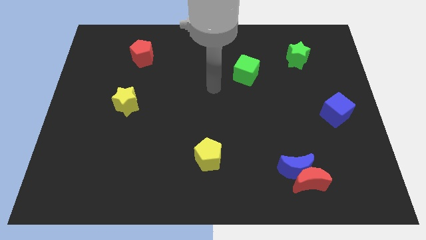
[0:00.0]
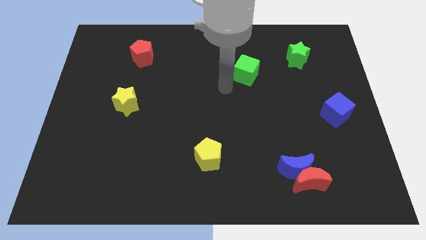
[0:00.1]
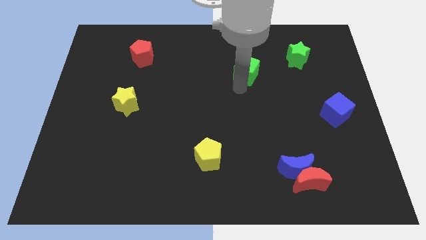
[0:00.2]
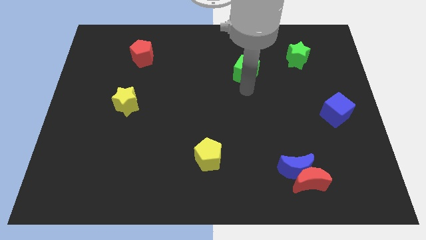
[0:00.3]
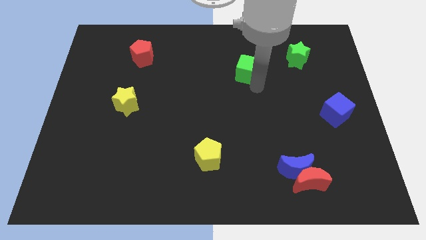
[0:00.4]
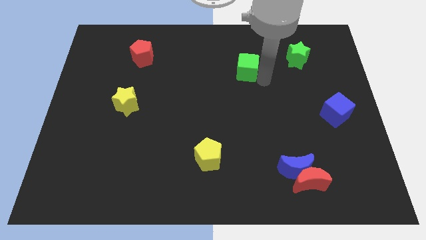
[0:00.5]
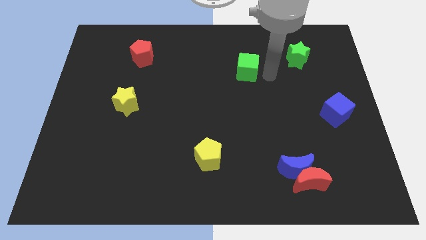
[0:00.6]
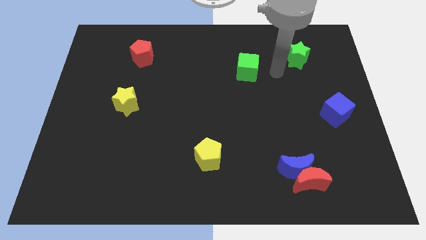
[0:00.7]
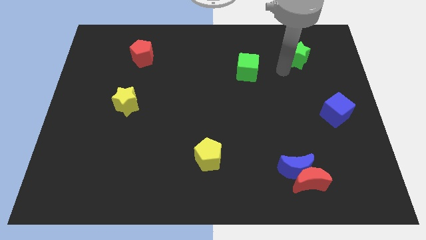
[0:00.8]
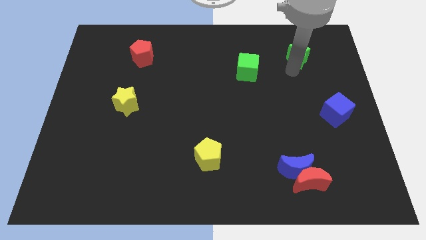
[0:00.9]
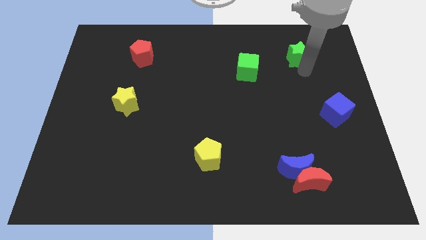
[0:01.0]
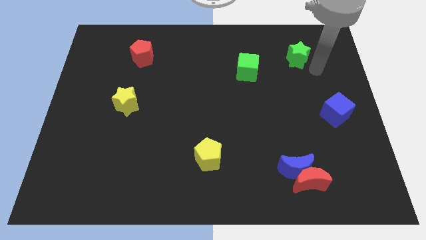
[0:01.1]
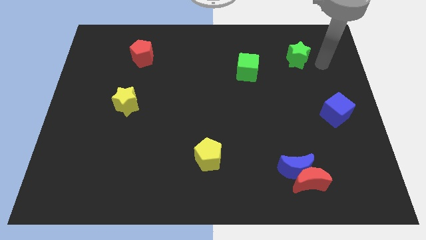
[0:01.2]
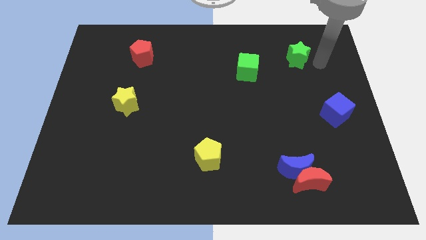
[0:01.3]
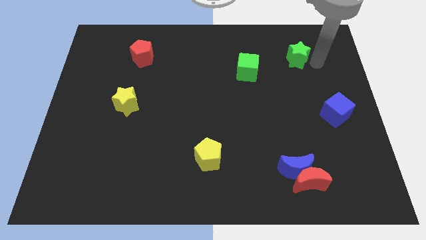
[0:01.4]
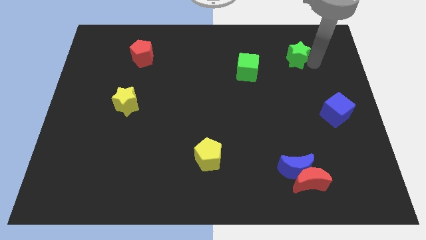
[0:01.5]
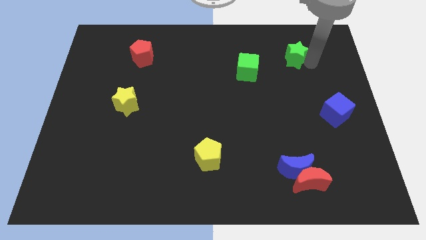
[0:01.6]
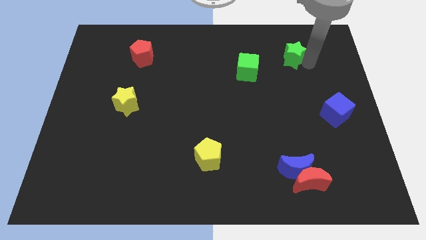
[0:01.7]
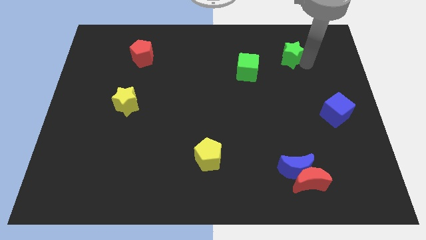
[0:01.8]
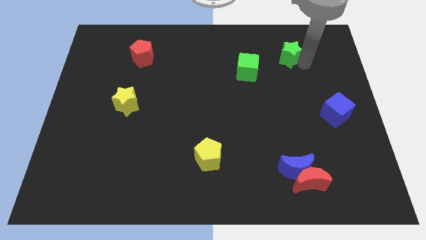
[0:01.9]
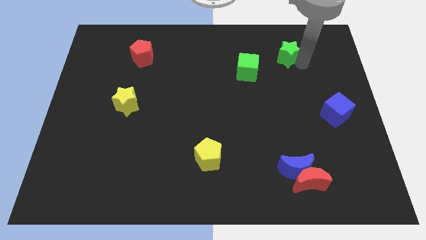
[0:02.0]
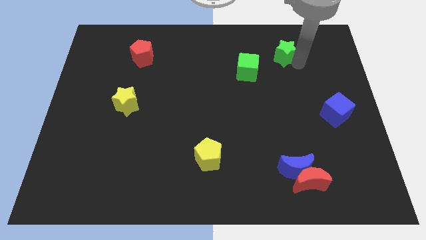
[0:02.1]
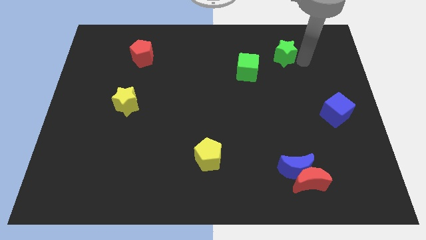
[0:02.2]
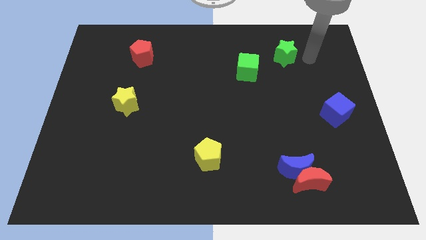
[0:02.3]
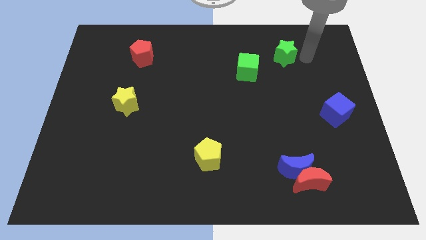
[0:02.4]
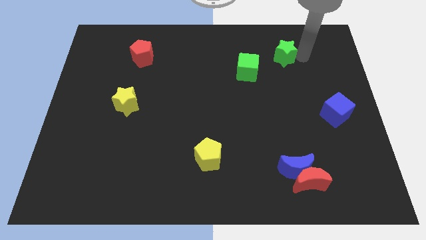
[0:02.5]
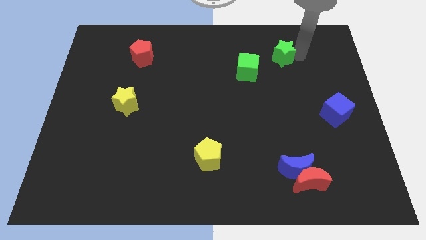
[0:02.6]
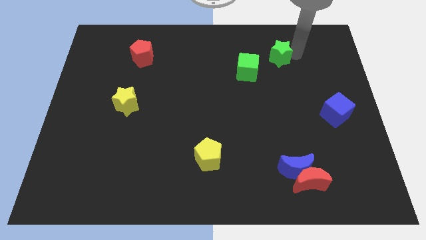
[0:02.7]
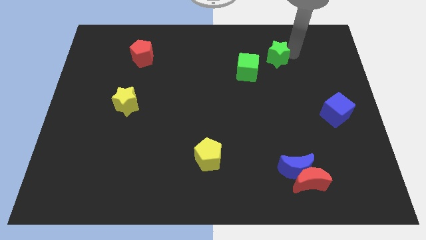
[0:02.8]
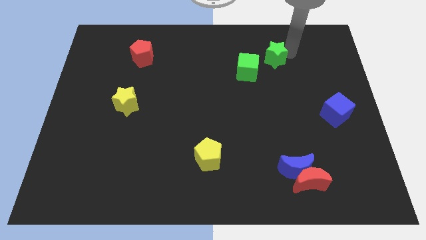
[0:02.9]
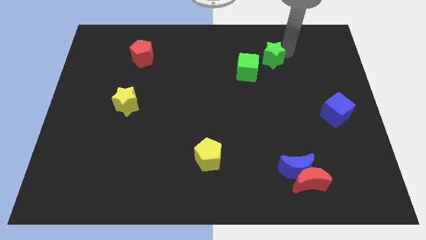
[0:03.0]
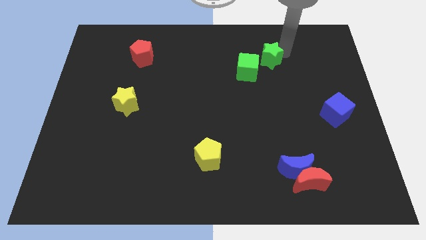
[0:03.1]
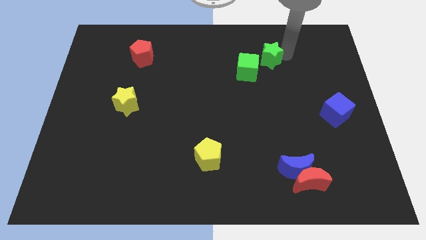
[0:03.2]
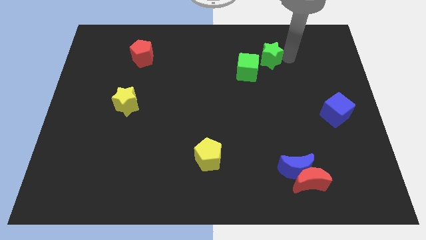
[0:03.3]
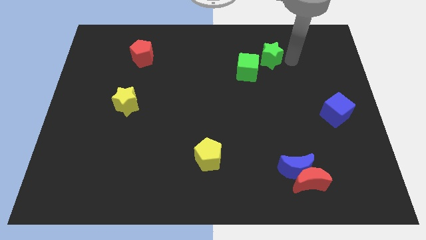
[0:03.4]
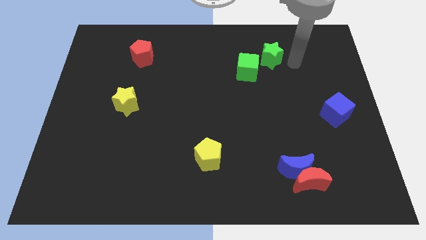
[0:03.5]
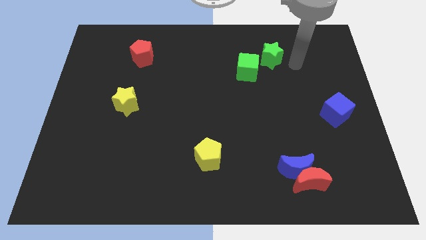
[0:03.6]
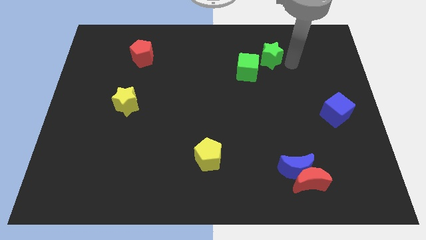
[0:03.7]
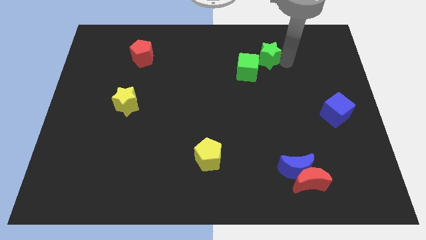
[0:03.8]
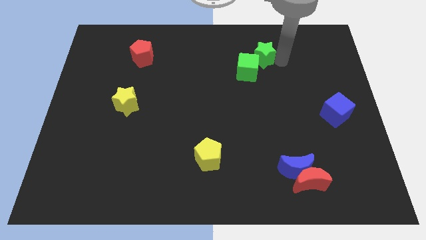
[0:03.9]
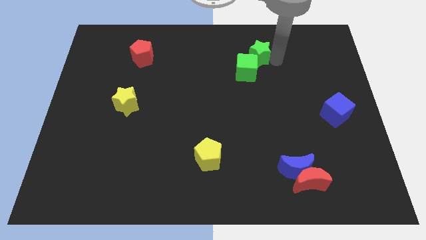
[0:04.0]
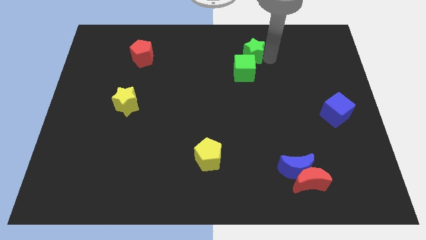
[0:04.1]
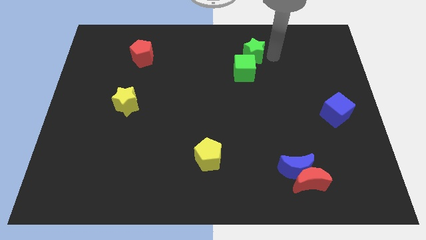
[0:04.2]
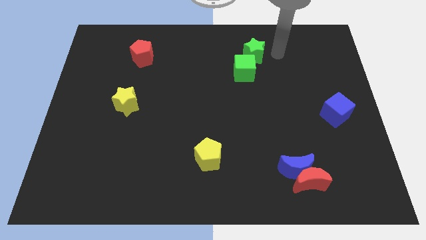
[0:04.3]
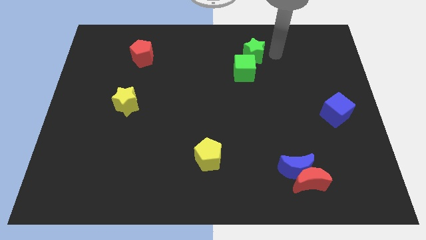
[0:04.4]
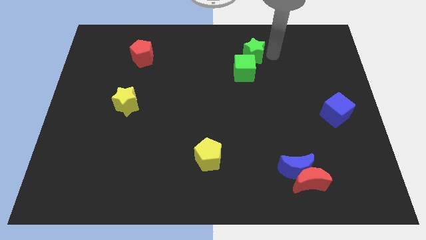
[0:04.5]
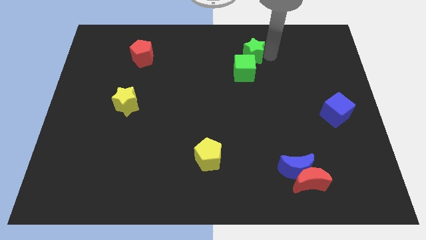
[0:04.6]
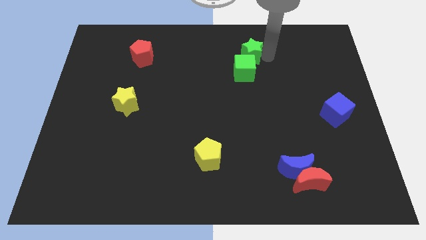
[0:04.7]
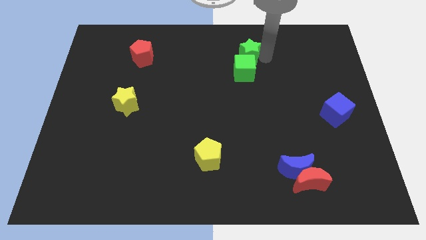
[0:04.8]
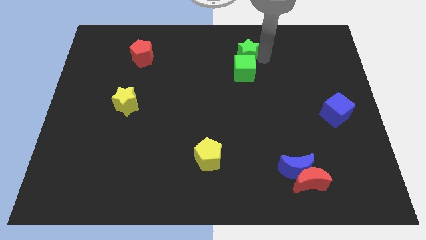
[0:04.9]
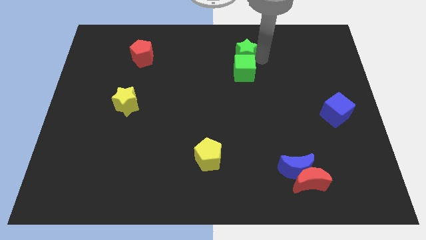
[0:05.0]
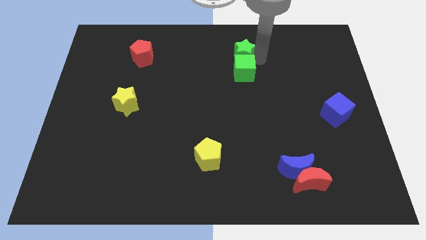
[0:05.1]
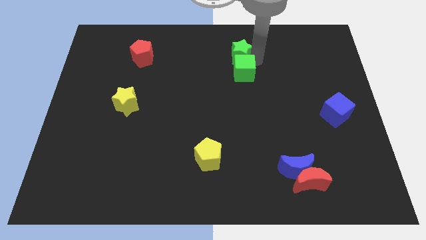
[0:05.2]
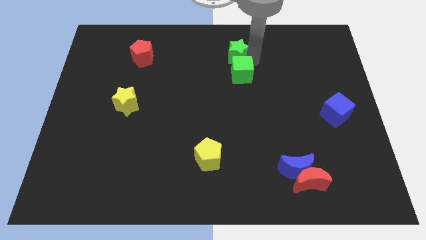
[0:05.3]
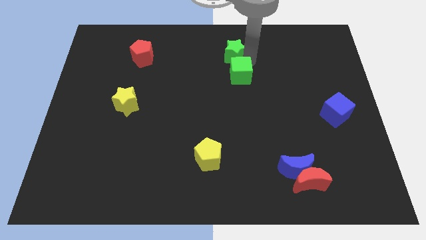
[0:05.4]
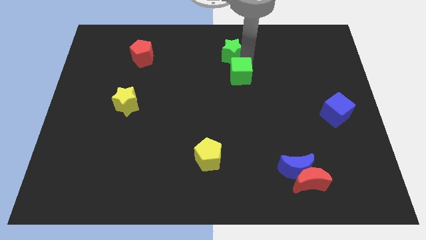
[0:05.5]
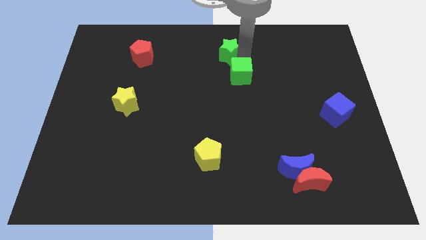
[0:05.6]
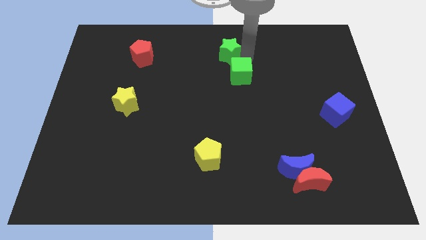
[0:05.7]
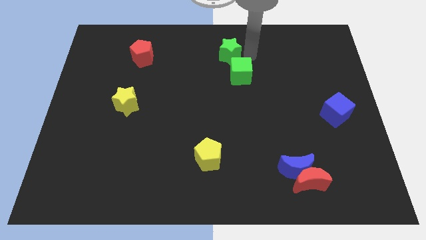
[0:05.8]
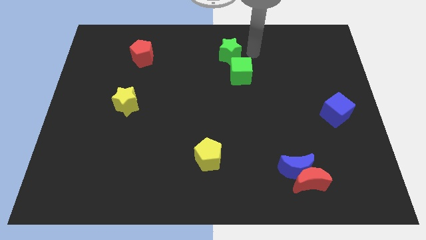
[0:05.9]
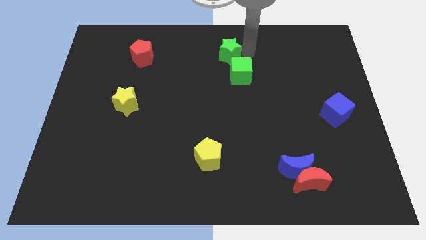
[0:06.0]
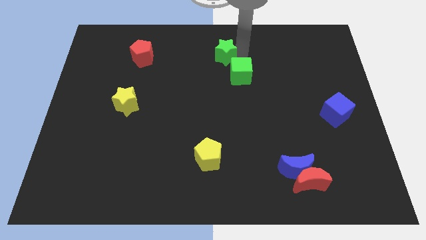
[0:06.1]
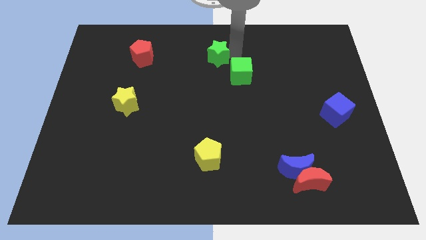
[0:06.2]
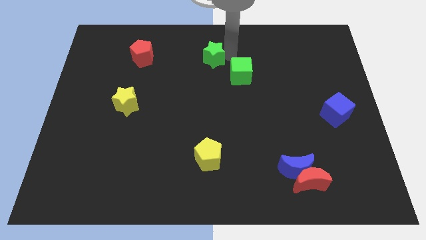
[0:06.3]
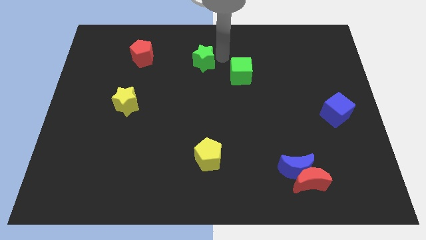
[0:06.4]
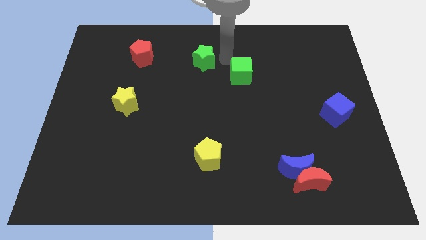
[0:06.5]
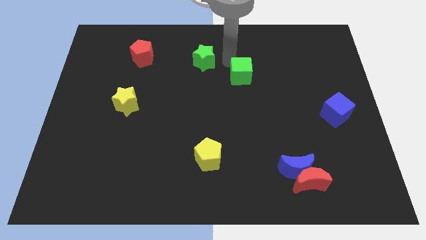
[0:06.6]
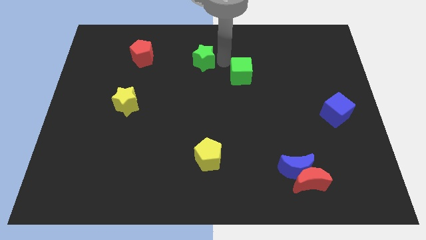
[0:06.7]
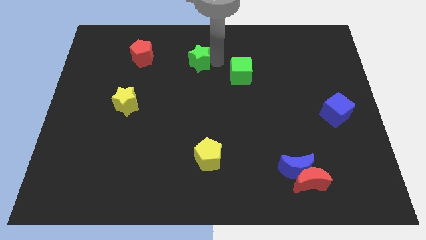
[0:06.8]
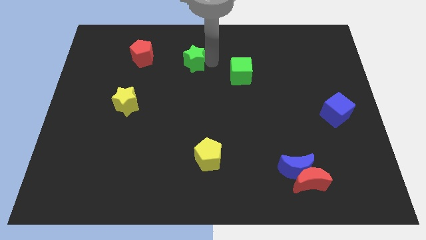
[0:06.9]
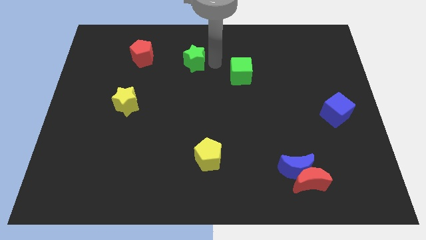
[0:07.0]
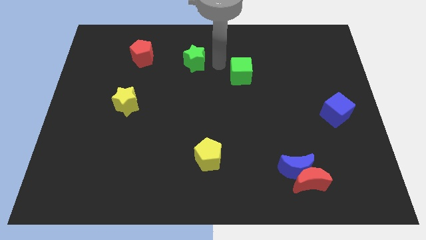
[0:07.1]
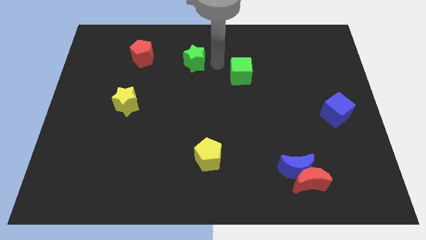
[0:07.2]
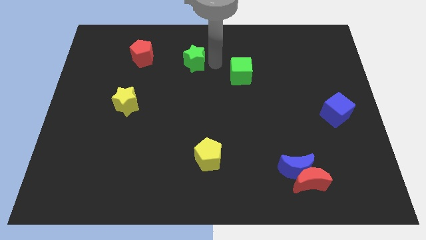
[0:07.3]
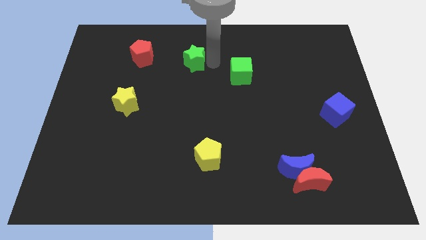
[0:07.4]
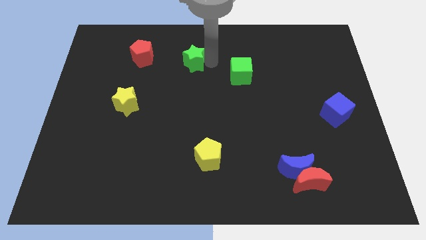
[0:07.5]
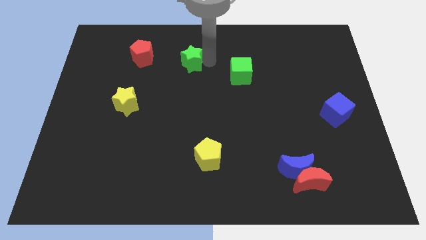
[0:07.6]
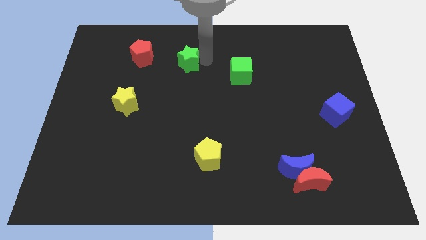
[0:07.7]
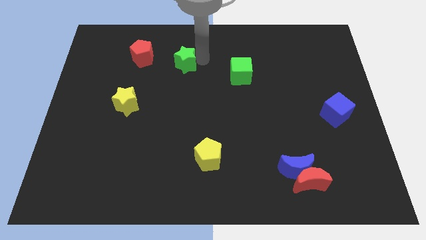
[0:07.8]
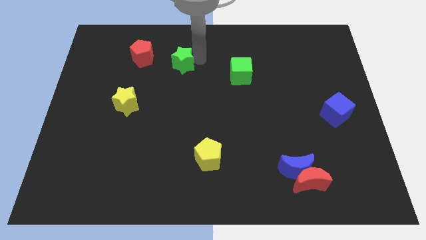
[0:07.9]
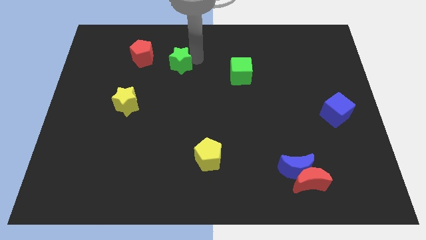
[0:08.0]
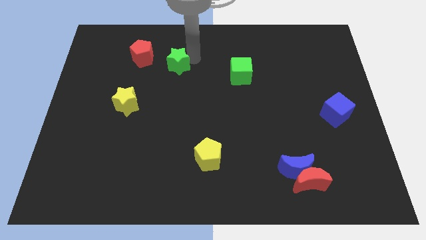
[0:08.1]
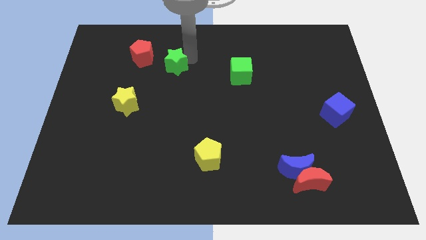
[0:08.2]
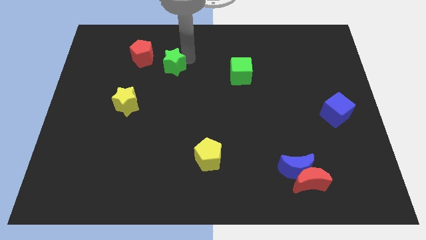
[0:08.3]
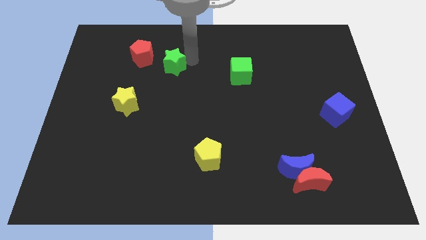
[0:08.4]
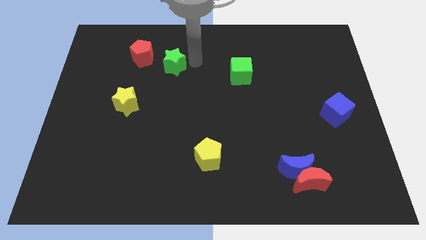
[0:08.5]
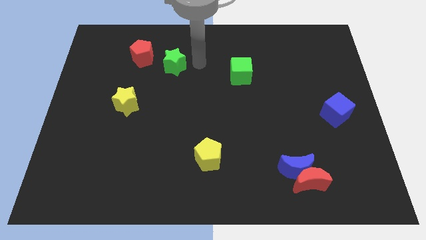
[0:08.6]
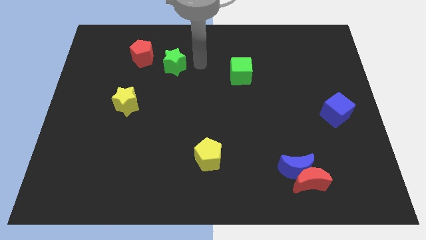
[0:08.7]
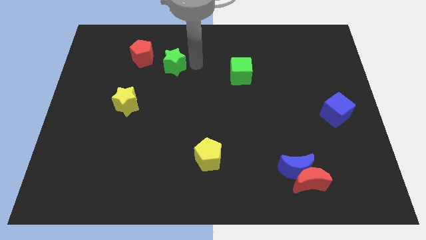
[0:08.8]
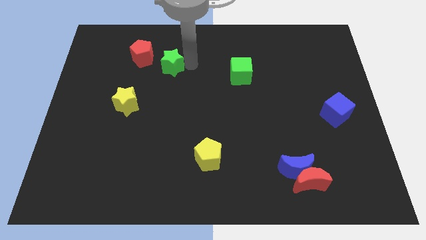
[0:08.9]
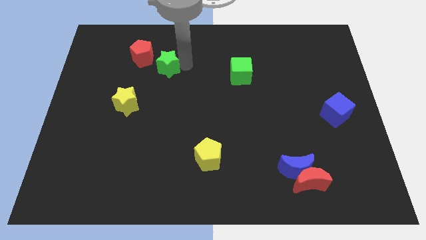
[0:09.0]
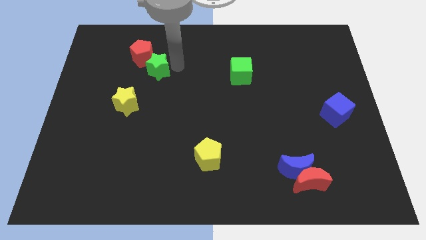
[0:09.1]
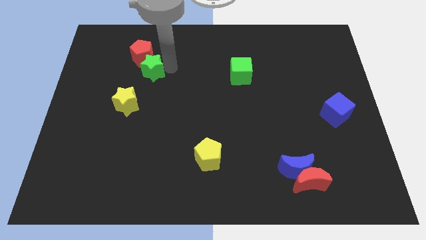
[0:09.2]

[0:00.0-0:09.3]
put the green star to the top of the yellow star
